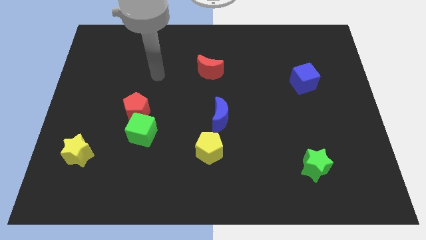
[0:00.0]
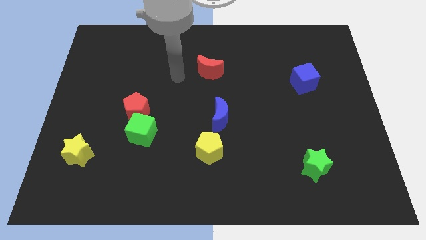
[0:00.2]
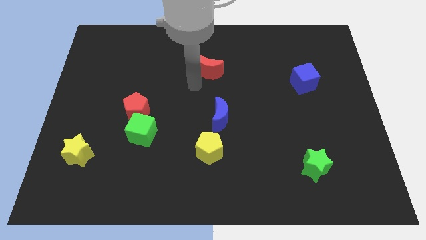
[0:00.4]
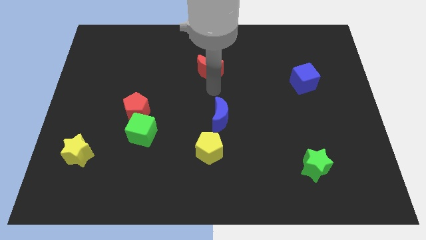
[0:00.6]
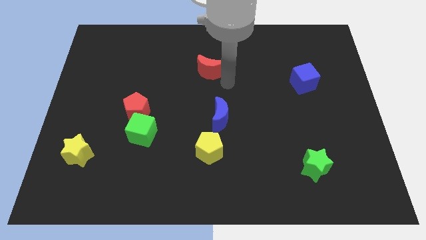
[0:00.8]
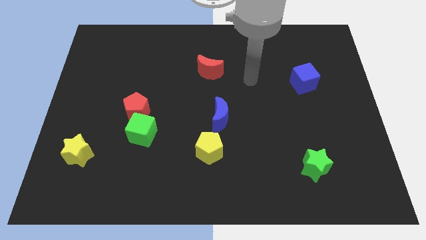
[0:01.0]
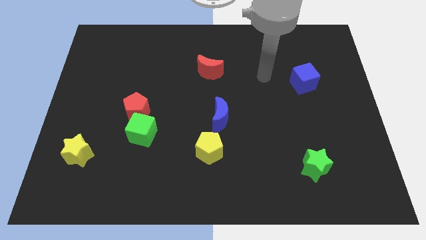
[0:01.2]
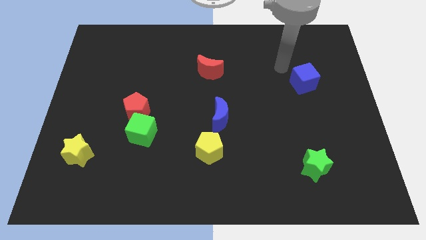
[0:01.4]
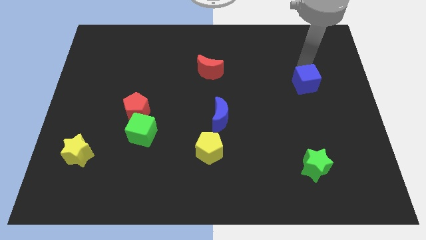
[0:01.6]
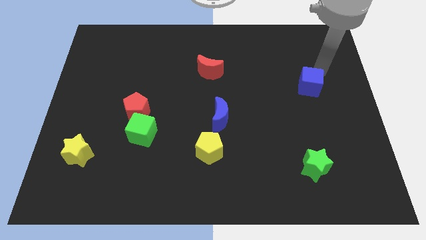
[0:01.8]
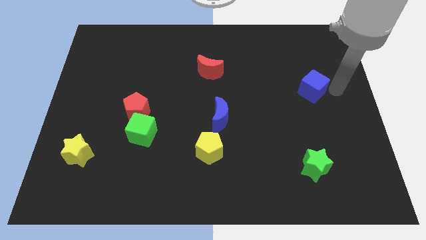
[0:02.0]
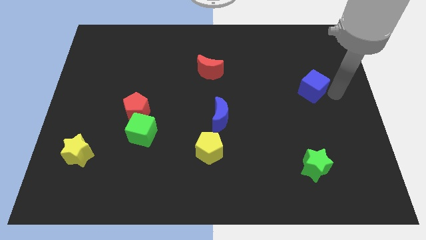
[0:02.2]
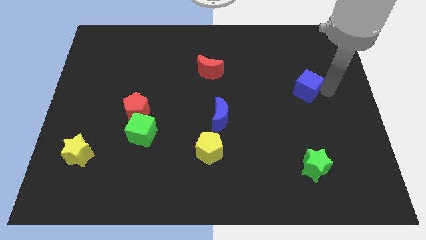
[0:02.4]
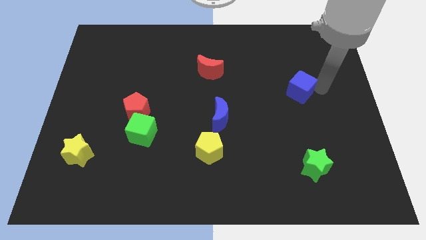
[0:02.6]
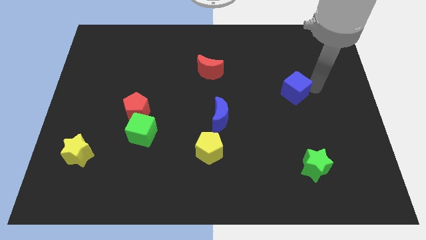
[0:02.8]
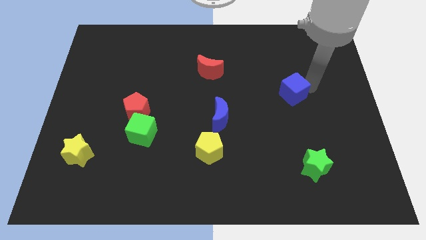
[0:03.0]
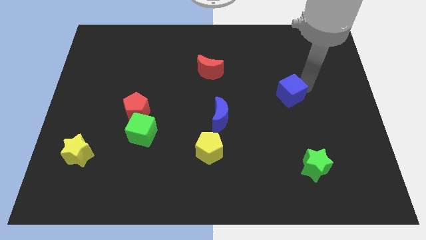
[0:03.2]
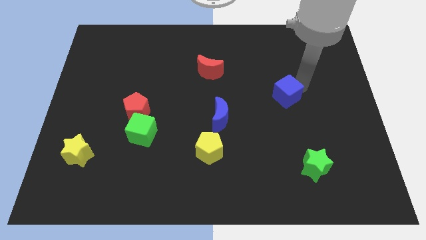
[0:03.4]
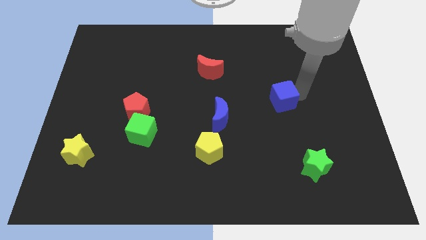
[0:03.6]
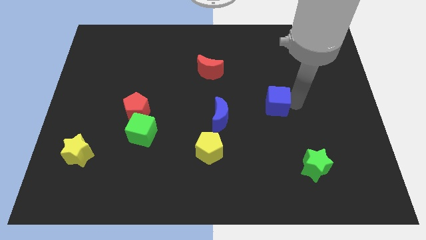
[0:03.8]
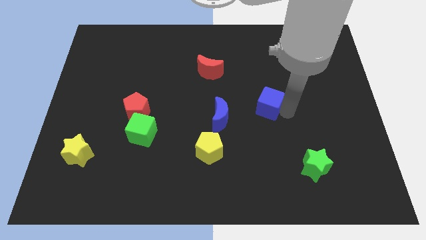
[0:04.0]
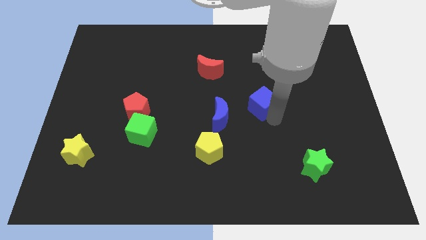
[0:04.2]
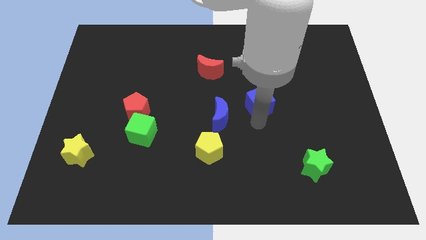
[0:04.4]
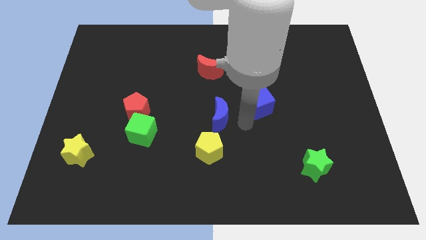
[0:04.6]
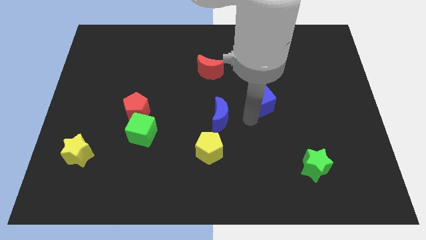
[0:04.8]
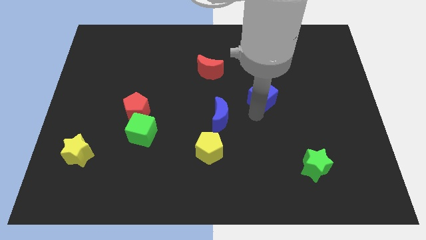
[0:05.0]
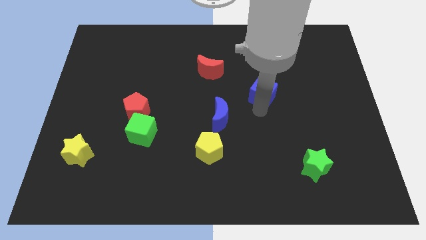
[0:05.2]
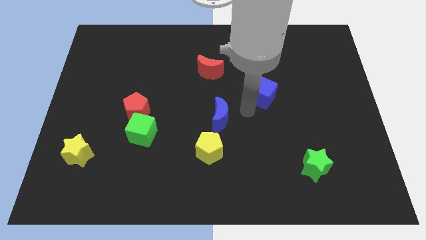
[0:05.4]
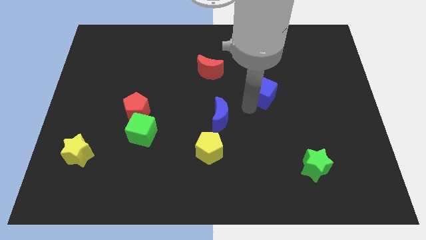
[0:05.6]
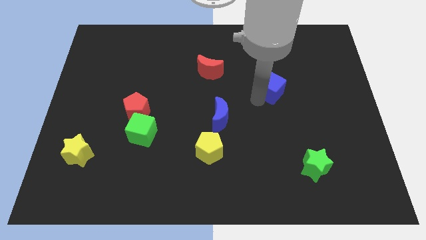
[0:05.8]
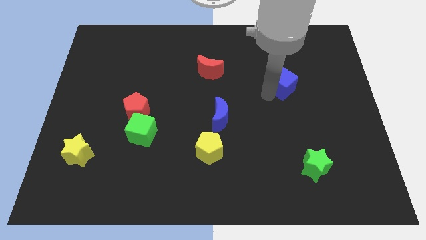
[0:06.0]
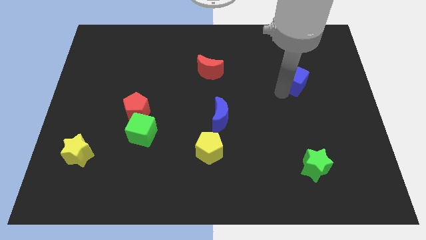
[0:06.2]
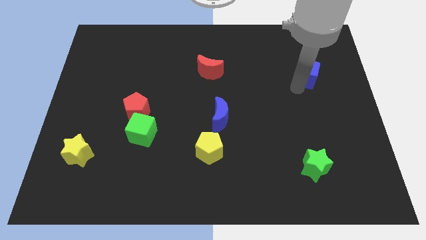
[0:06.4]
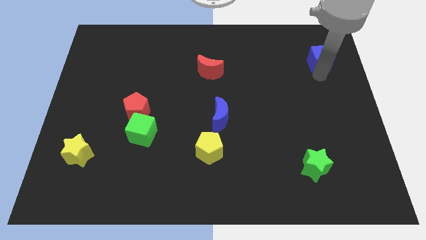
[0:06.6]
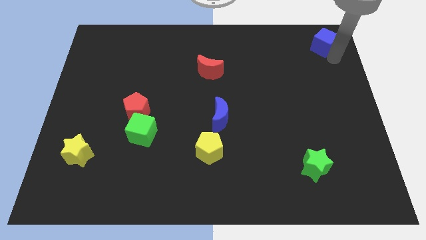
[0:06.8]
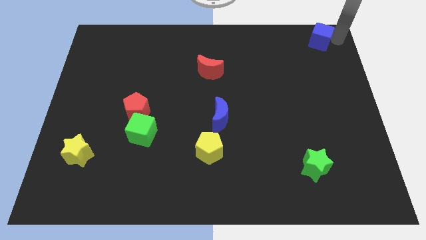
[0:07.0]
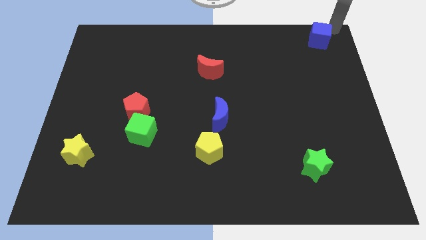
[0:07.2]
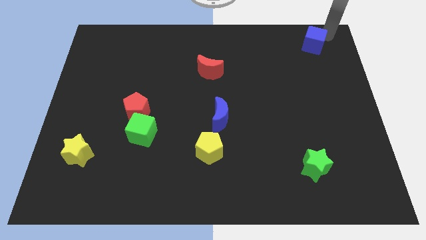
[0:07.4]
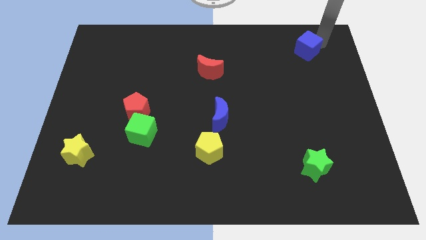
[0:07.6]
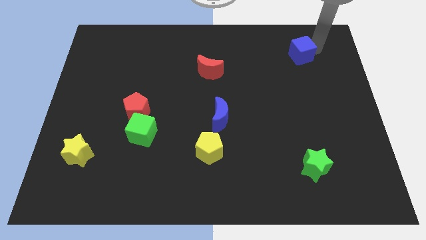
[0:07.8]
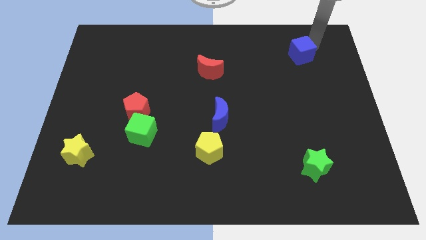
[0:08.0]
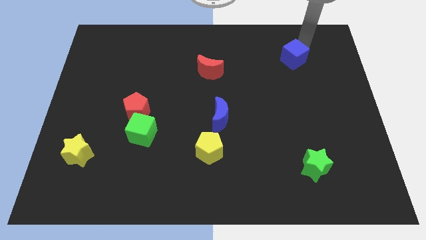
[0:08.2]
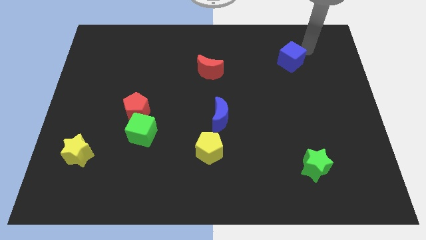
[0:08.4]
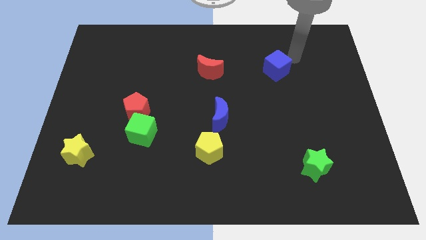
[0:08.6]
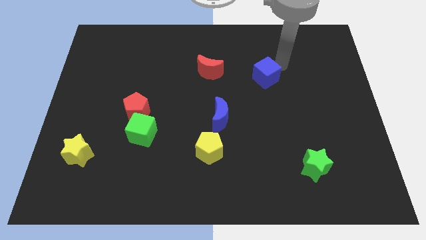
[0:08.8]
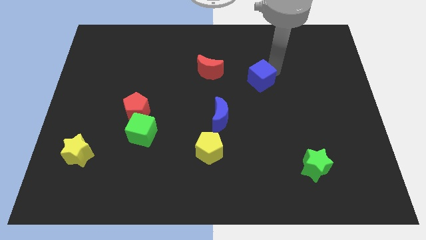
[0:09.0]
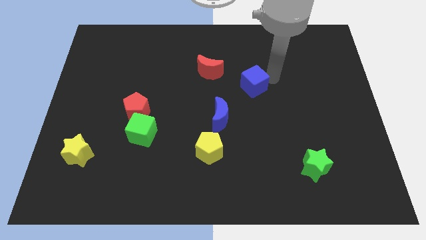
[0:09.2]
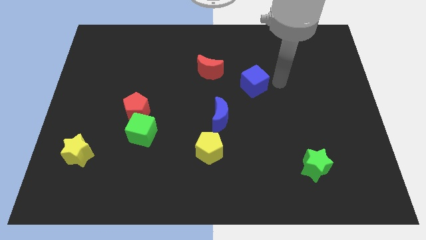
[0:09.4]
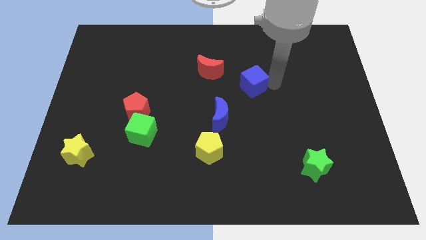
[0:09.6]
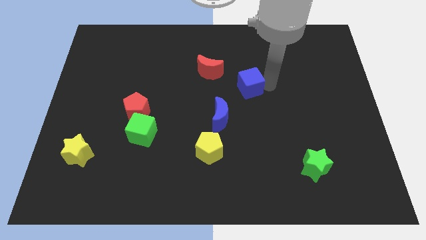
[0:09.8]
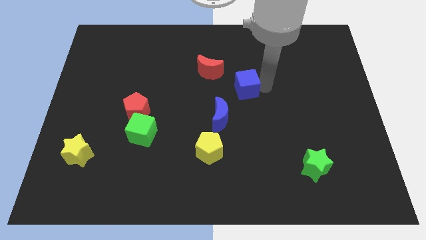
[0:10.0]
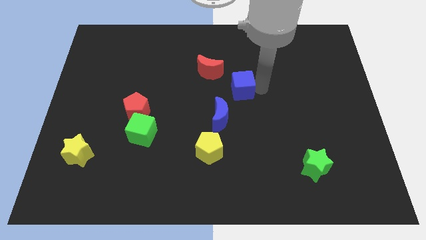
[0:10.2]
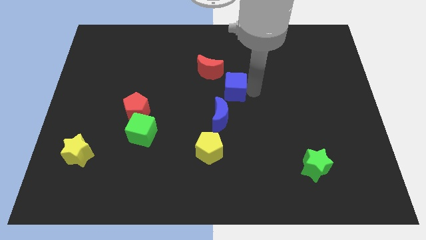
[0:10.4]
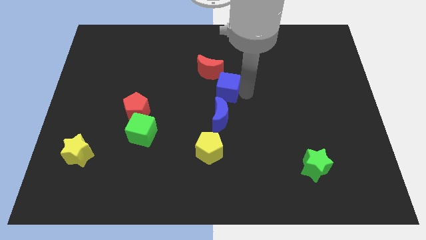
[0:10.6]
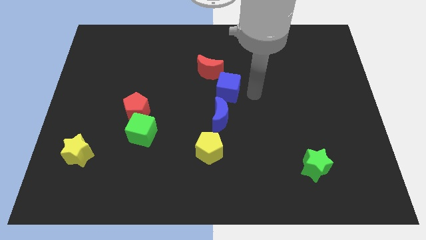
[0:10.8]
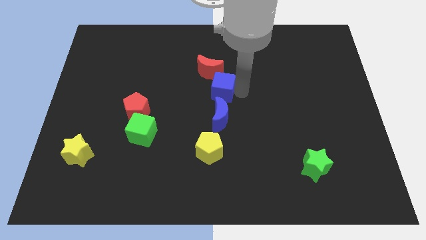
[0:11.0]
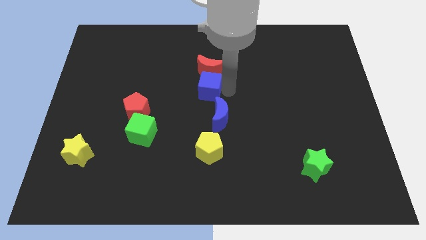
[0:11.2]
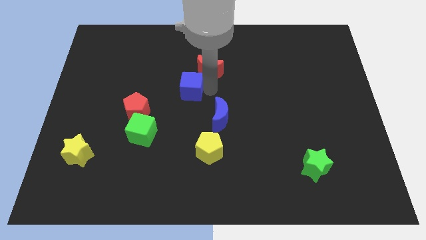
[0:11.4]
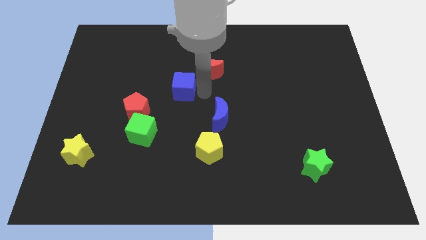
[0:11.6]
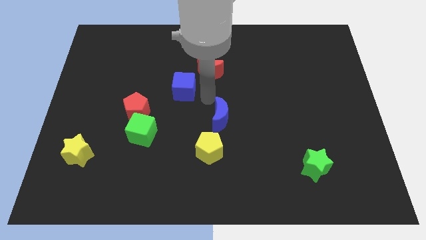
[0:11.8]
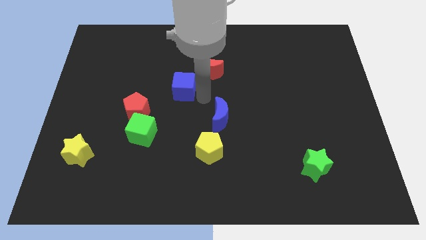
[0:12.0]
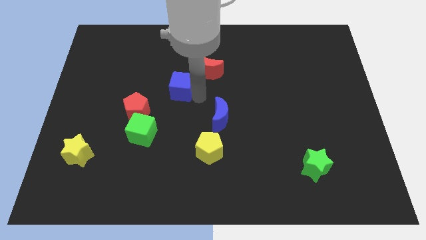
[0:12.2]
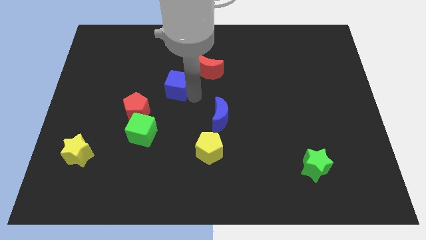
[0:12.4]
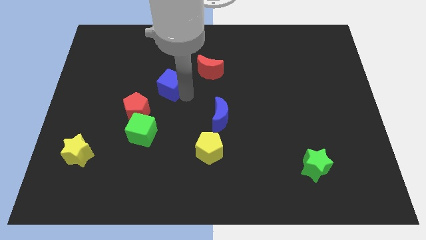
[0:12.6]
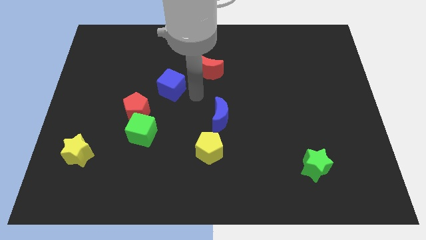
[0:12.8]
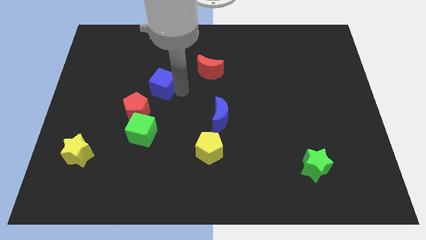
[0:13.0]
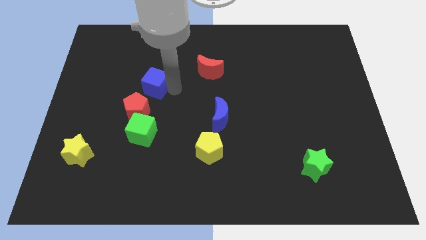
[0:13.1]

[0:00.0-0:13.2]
slide the blue cube to the top side of the red pentagon
